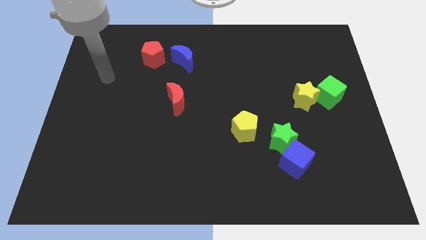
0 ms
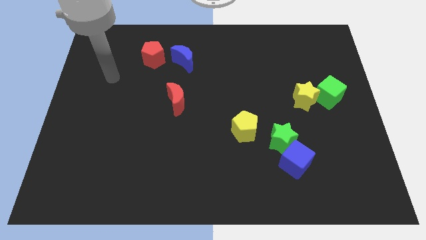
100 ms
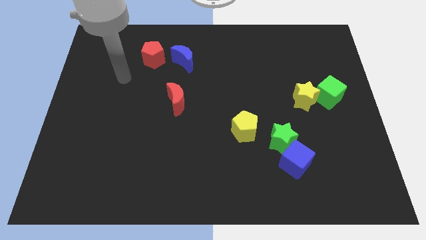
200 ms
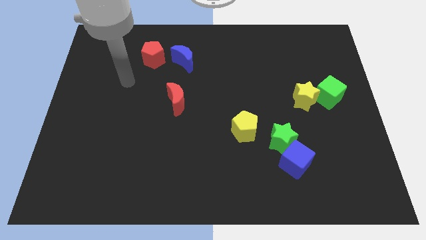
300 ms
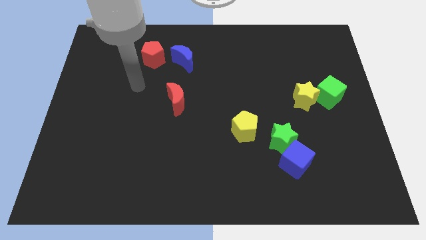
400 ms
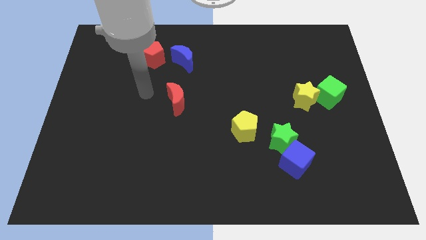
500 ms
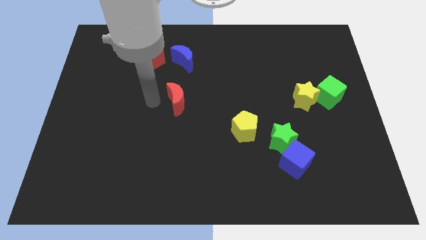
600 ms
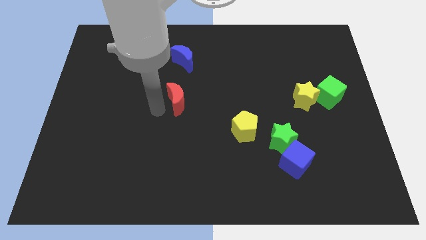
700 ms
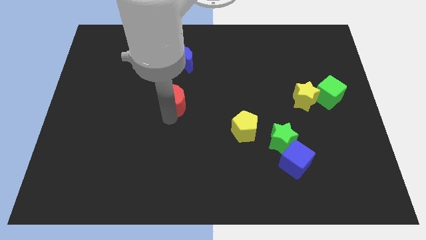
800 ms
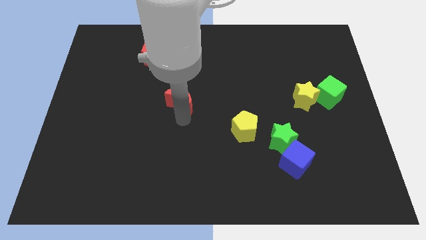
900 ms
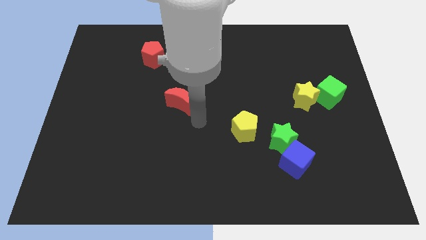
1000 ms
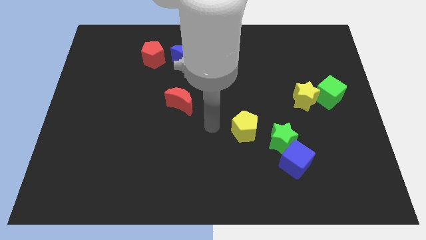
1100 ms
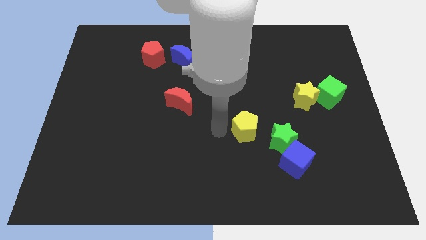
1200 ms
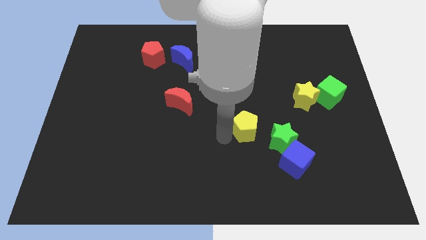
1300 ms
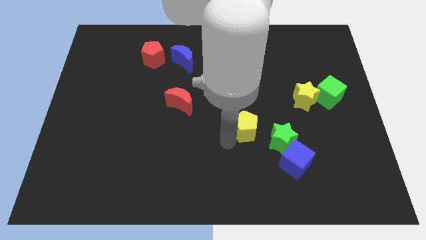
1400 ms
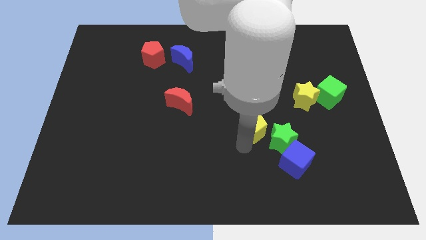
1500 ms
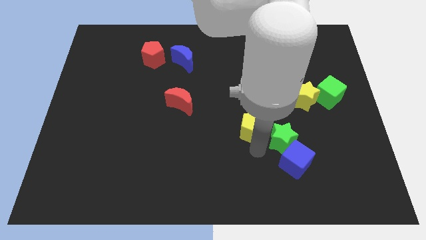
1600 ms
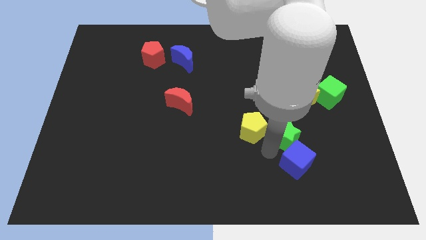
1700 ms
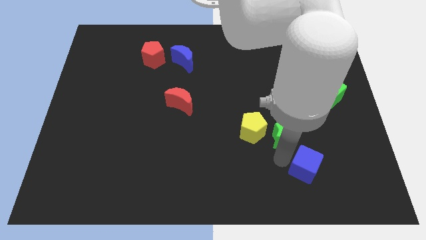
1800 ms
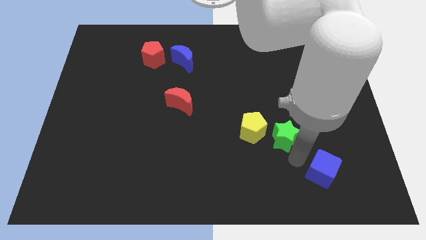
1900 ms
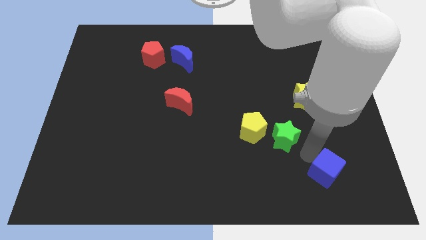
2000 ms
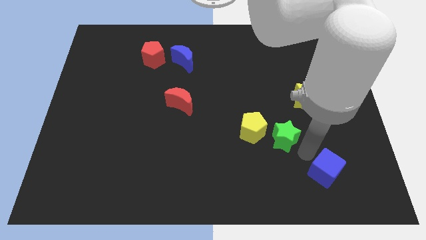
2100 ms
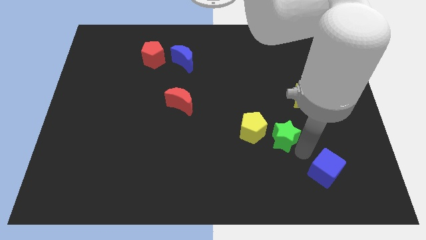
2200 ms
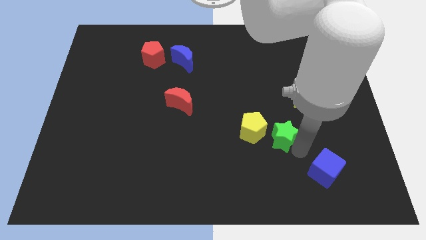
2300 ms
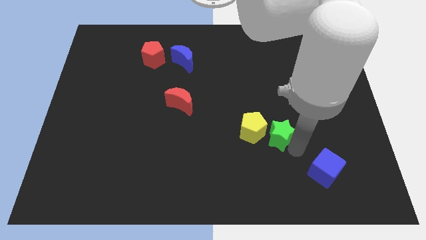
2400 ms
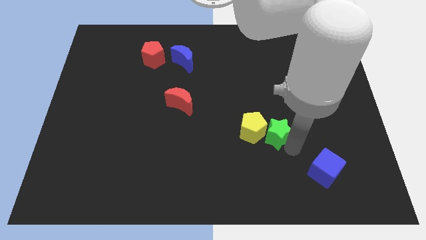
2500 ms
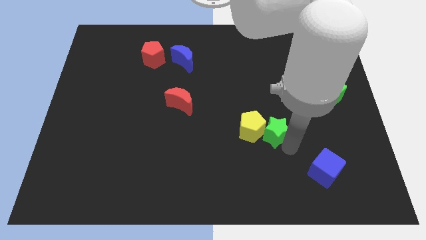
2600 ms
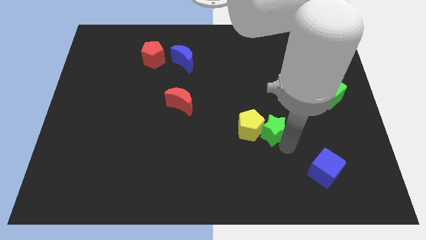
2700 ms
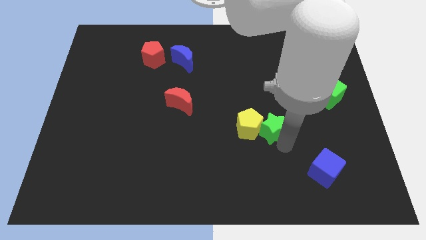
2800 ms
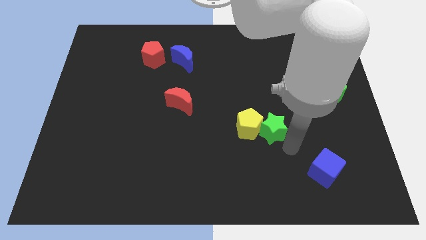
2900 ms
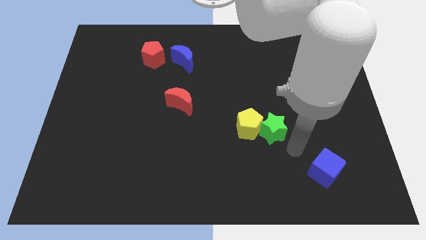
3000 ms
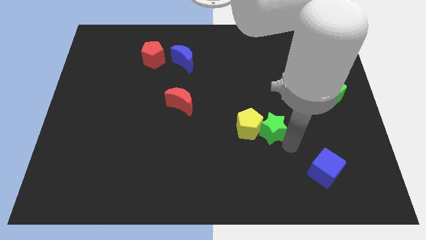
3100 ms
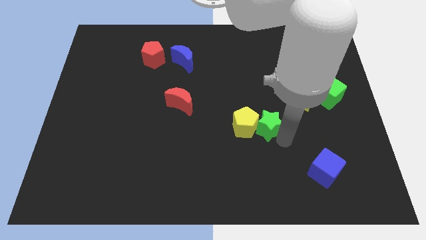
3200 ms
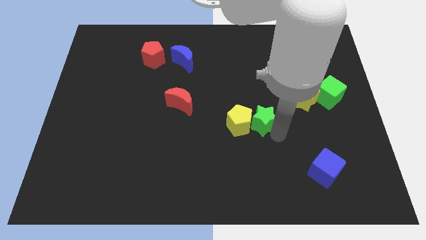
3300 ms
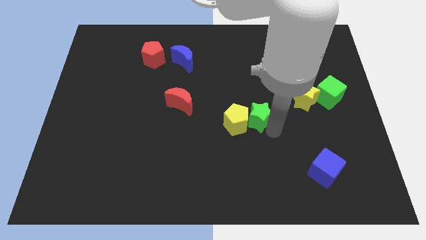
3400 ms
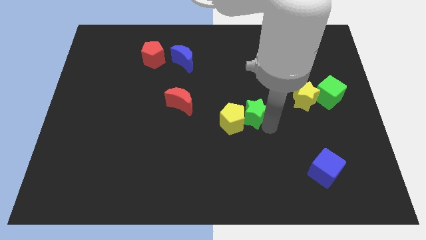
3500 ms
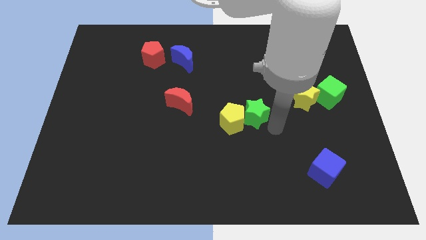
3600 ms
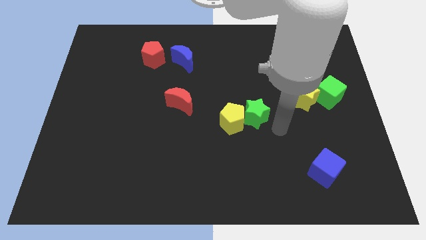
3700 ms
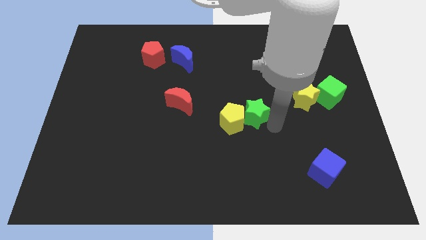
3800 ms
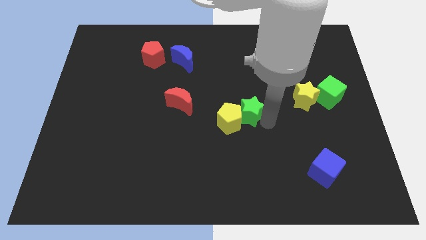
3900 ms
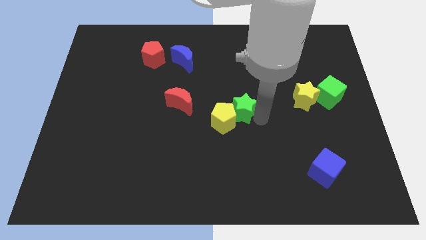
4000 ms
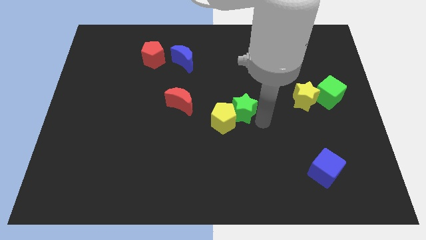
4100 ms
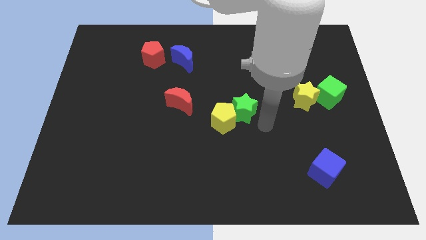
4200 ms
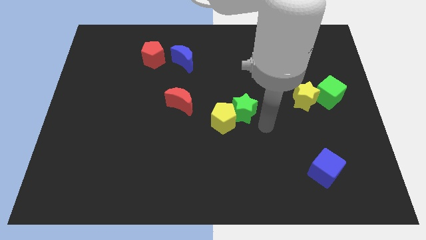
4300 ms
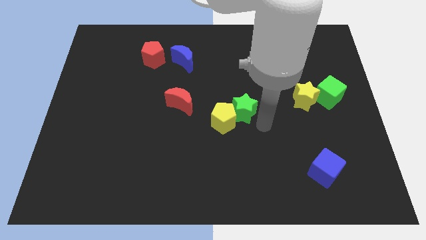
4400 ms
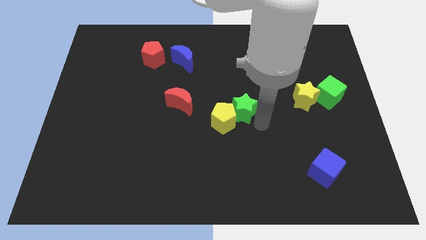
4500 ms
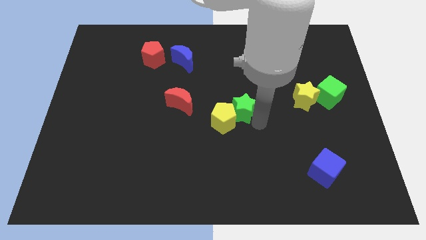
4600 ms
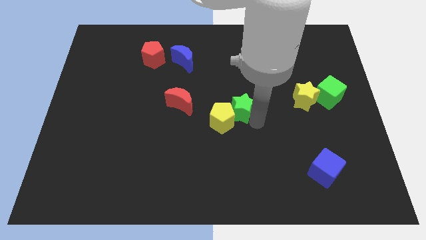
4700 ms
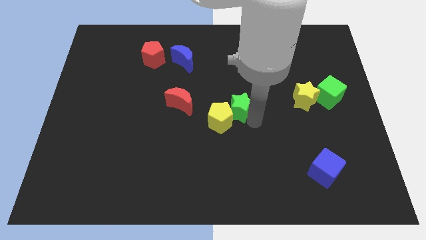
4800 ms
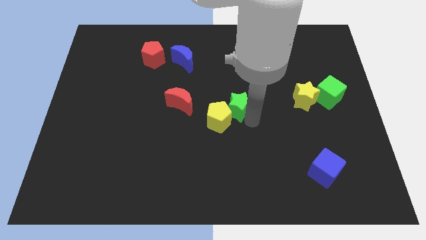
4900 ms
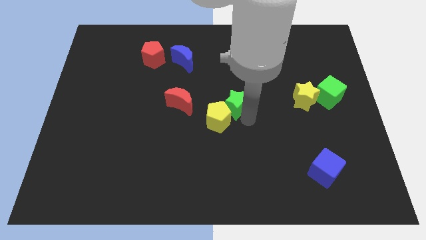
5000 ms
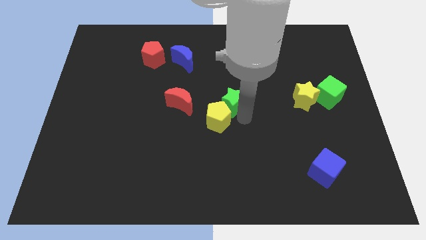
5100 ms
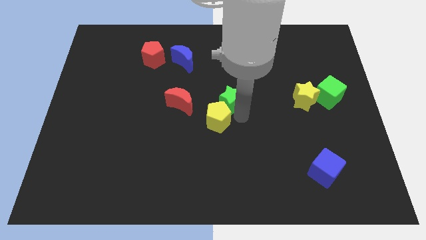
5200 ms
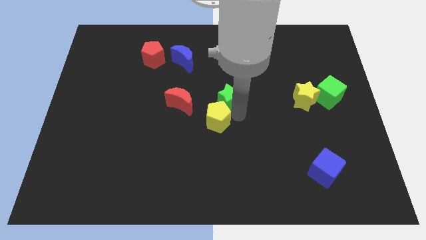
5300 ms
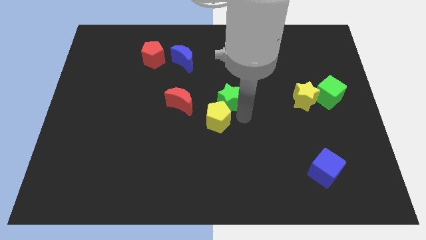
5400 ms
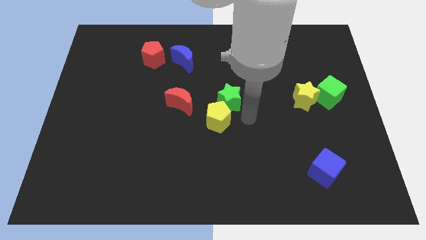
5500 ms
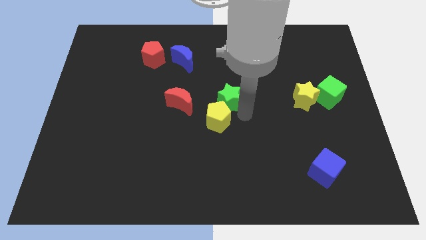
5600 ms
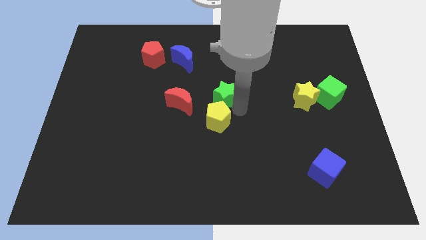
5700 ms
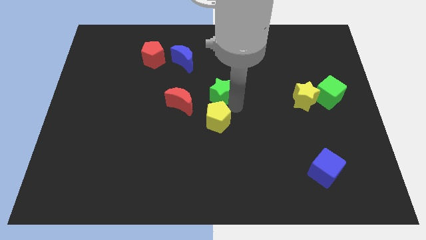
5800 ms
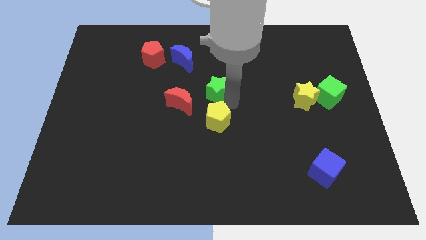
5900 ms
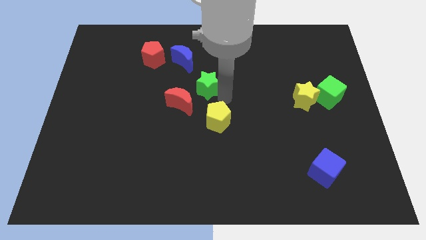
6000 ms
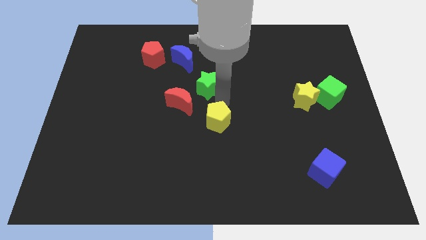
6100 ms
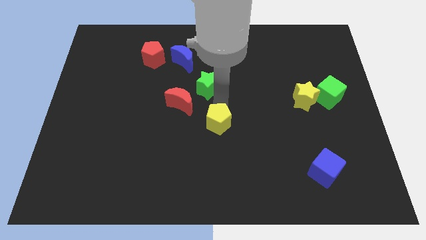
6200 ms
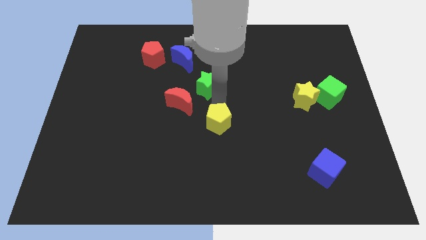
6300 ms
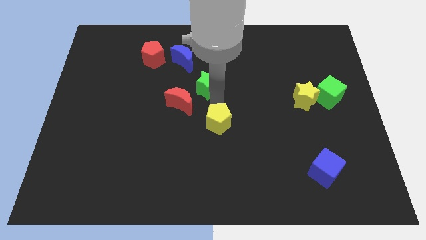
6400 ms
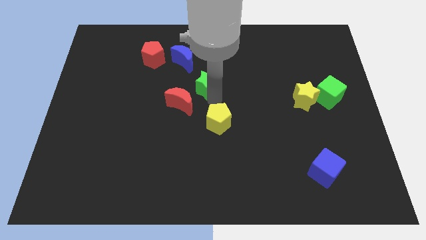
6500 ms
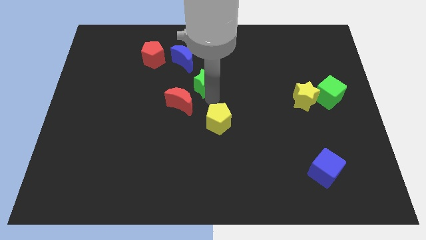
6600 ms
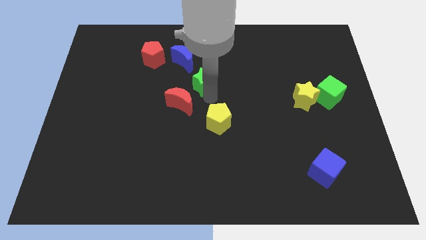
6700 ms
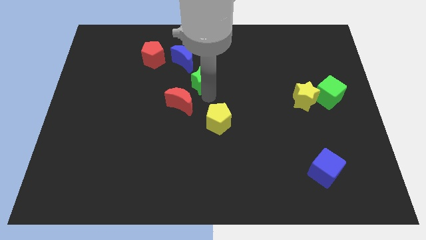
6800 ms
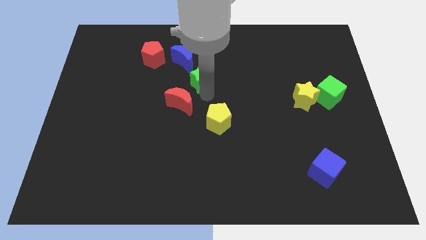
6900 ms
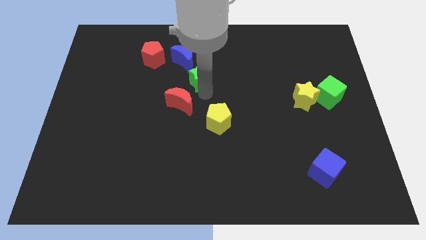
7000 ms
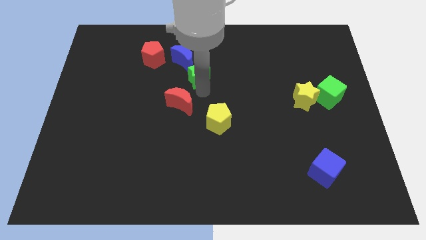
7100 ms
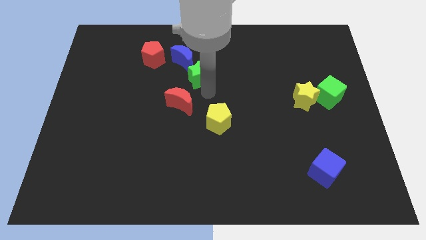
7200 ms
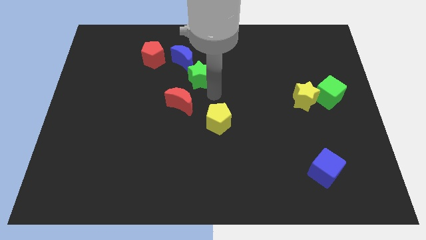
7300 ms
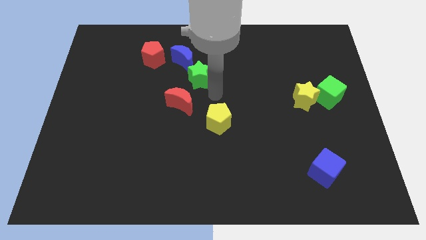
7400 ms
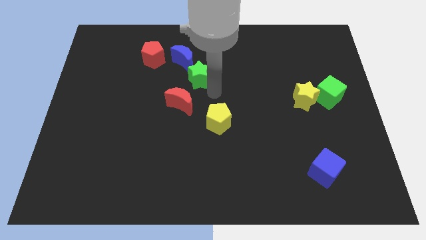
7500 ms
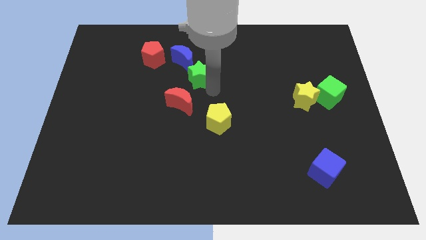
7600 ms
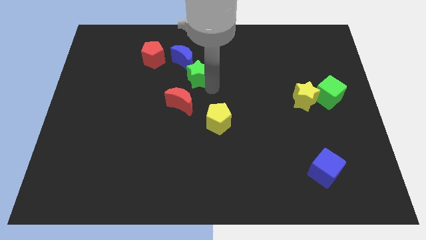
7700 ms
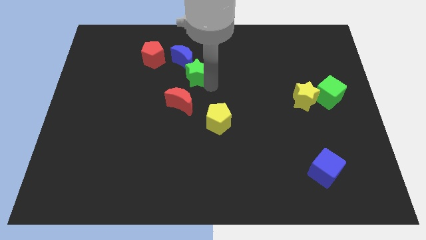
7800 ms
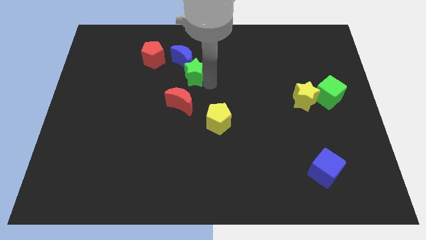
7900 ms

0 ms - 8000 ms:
put the green star close to the blue moon
